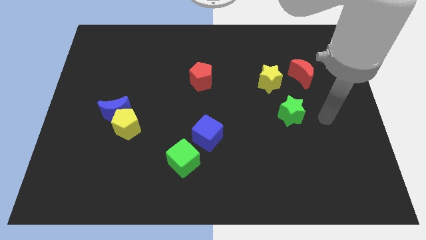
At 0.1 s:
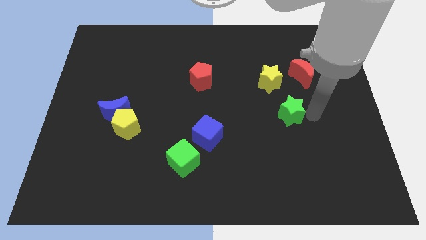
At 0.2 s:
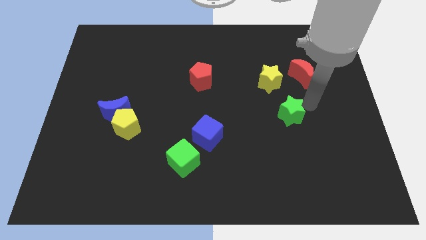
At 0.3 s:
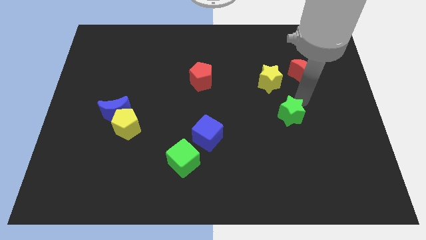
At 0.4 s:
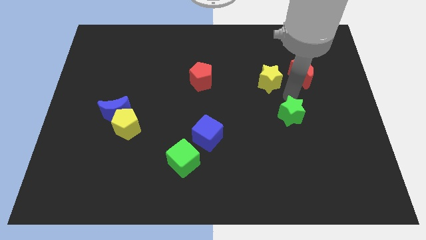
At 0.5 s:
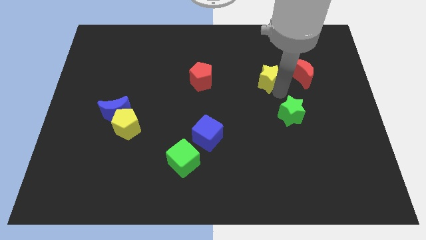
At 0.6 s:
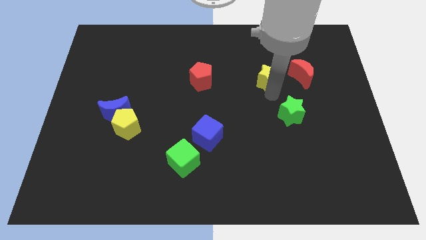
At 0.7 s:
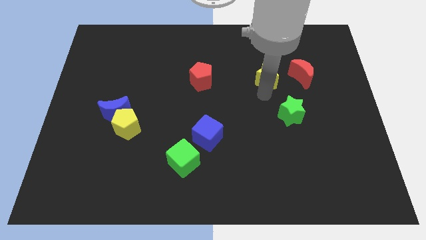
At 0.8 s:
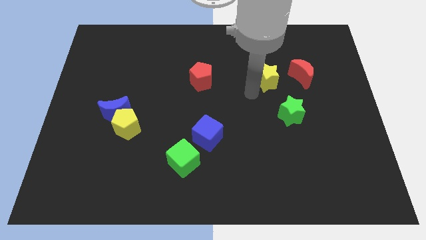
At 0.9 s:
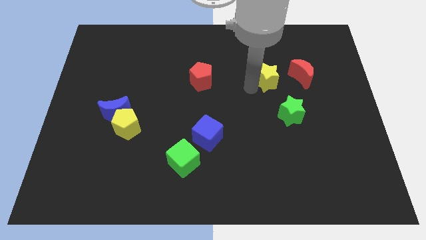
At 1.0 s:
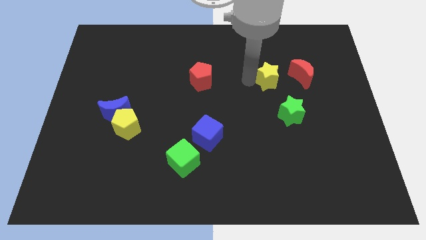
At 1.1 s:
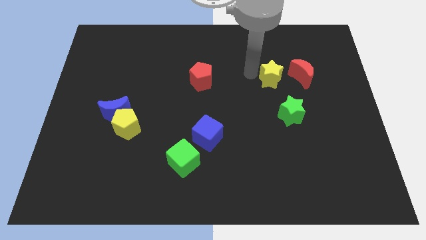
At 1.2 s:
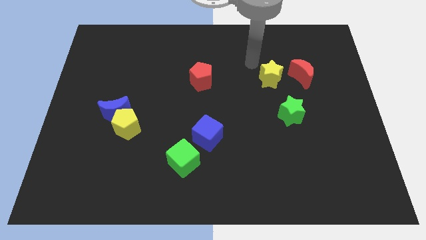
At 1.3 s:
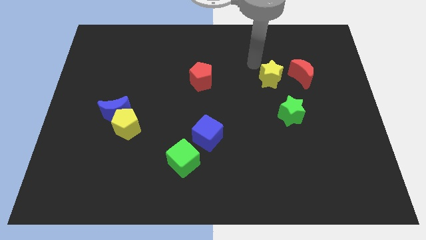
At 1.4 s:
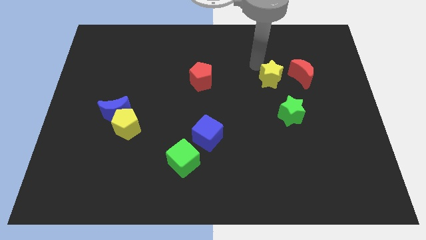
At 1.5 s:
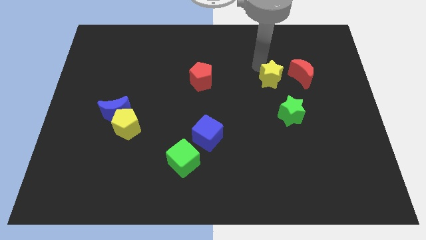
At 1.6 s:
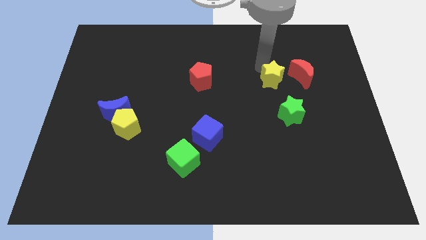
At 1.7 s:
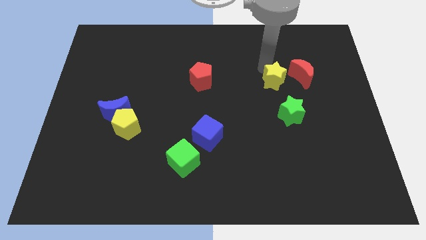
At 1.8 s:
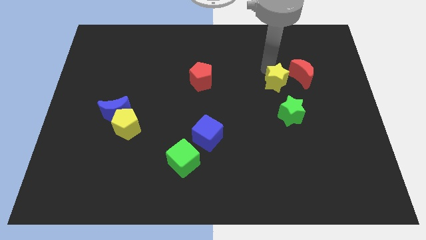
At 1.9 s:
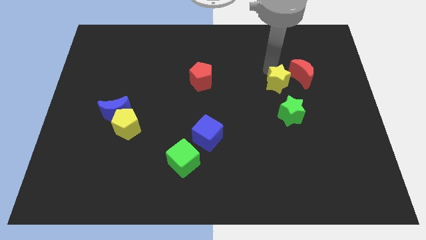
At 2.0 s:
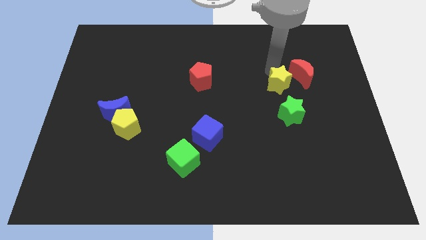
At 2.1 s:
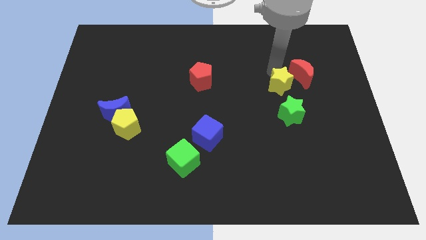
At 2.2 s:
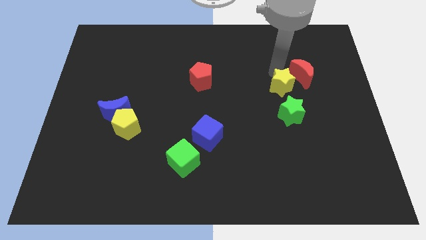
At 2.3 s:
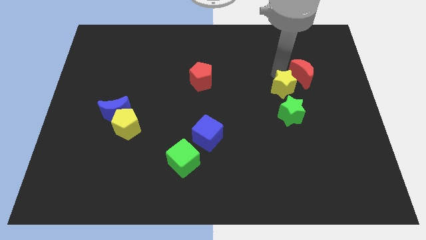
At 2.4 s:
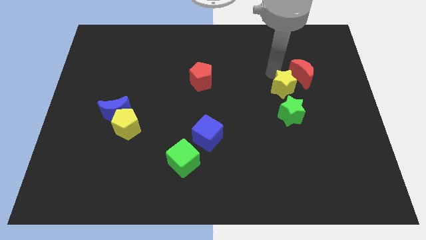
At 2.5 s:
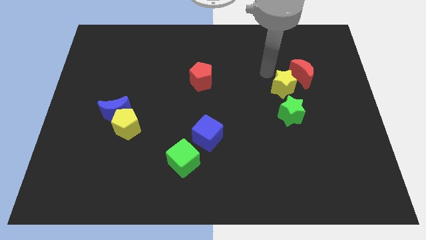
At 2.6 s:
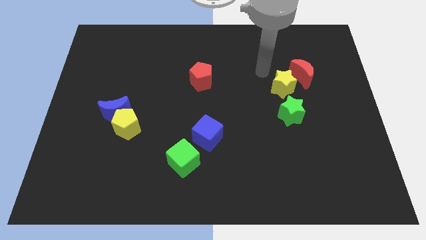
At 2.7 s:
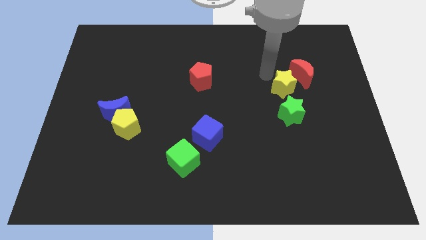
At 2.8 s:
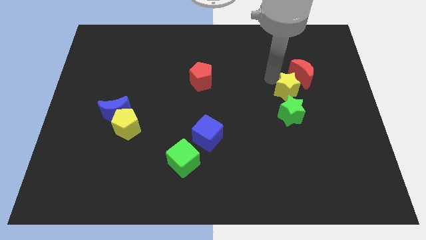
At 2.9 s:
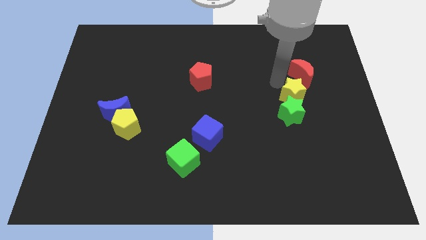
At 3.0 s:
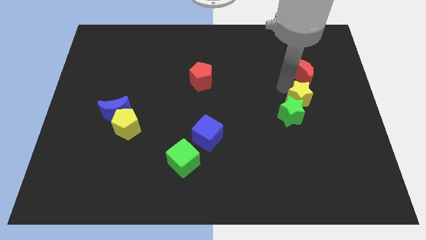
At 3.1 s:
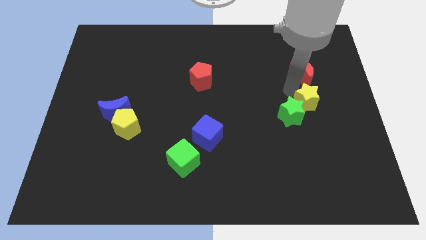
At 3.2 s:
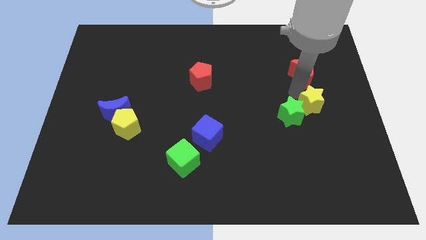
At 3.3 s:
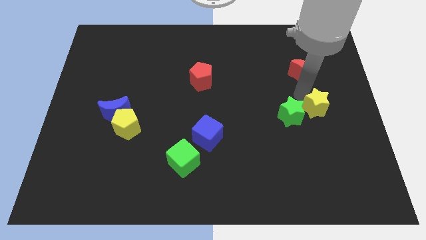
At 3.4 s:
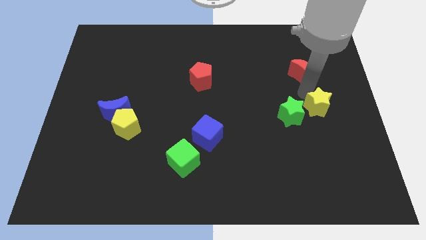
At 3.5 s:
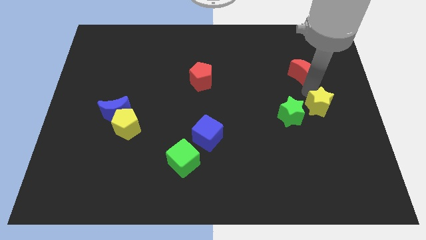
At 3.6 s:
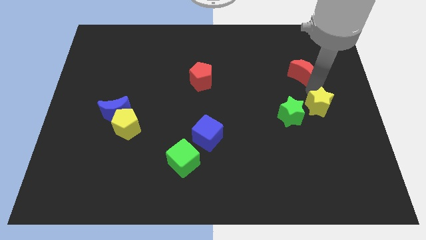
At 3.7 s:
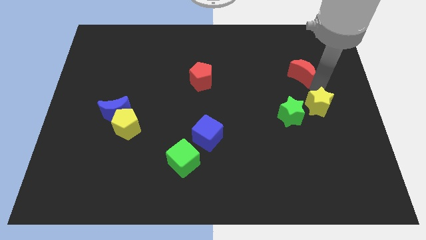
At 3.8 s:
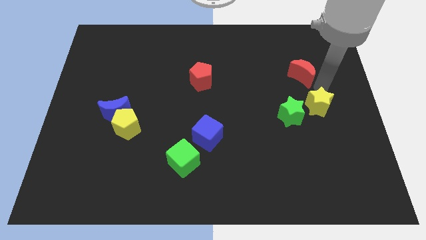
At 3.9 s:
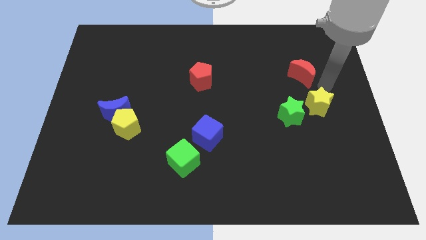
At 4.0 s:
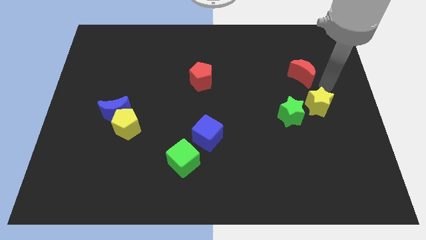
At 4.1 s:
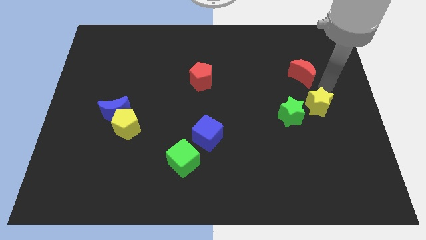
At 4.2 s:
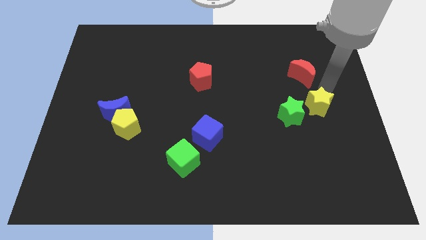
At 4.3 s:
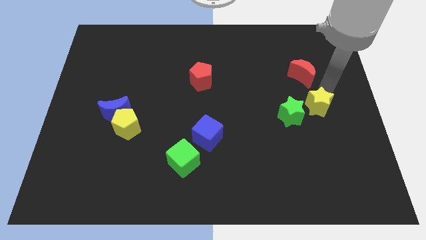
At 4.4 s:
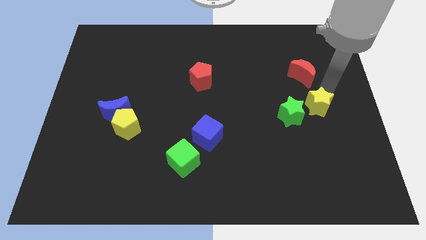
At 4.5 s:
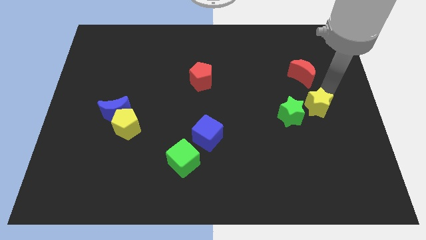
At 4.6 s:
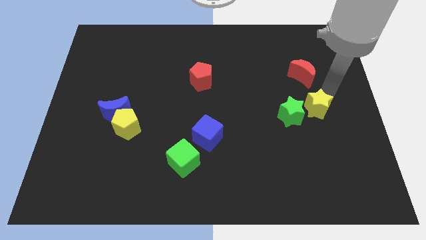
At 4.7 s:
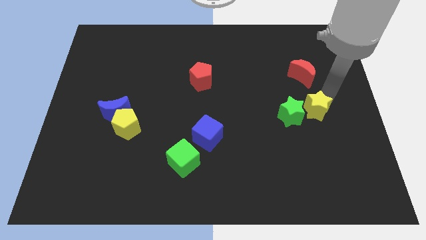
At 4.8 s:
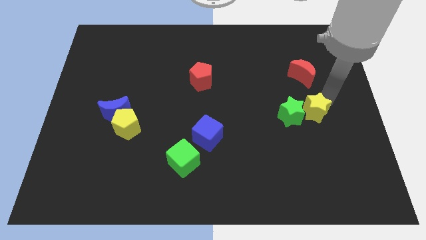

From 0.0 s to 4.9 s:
push the yellow star diagonally down and to the right of the green star

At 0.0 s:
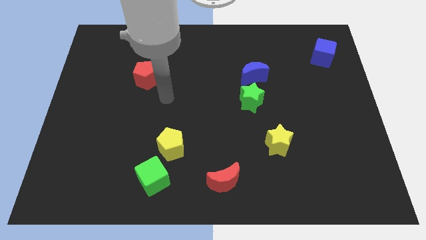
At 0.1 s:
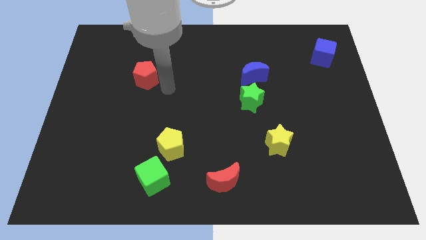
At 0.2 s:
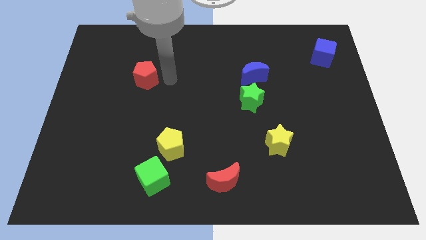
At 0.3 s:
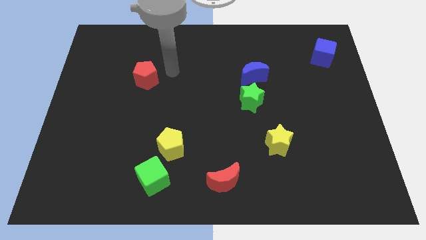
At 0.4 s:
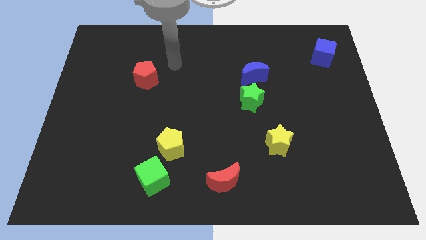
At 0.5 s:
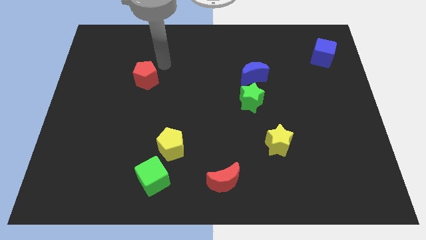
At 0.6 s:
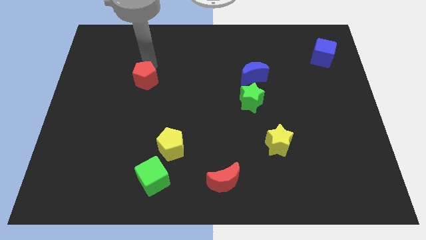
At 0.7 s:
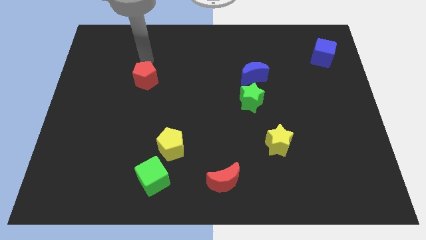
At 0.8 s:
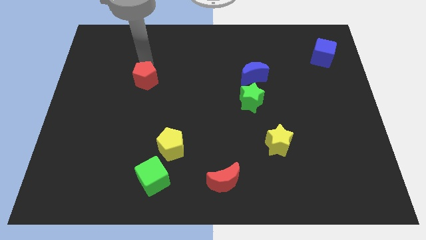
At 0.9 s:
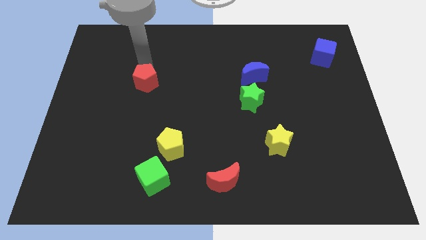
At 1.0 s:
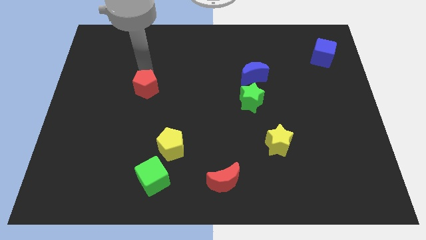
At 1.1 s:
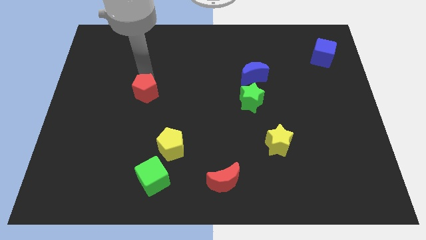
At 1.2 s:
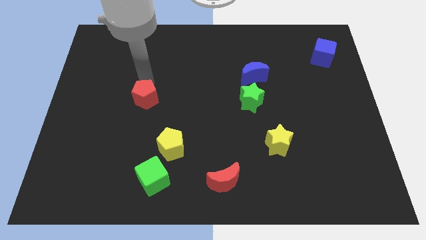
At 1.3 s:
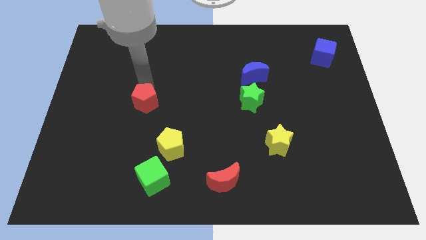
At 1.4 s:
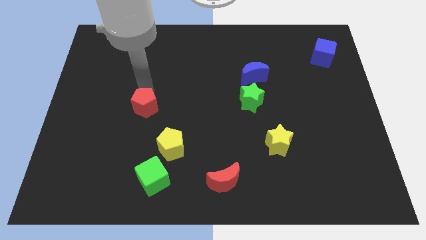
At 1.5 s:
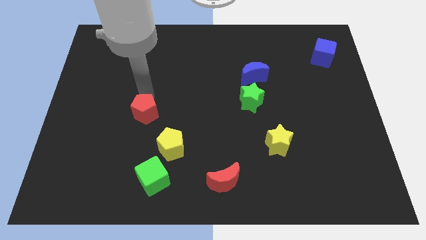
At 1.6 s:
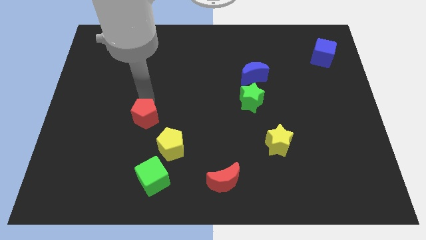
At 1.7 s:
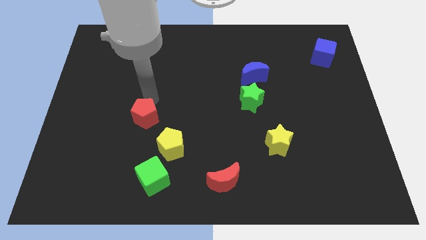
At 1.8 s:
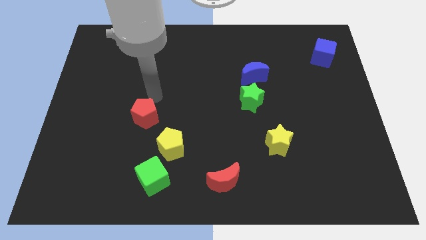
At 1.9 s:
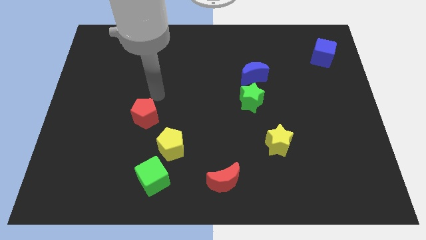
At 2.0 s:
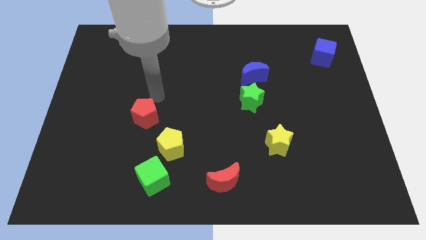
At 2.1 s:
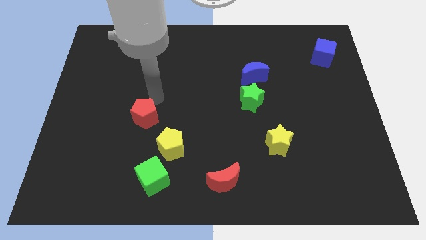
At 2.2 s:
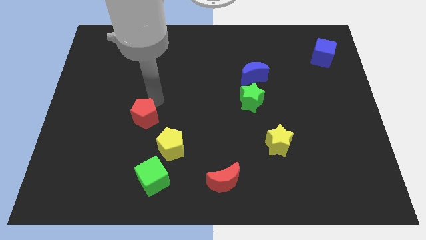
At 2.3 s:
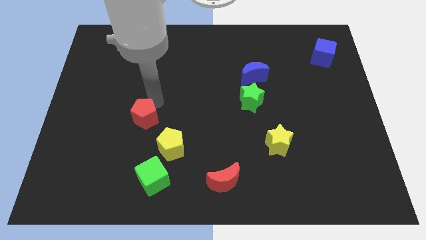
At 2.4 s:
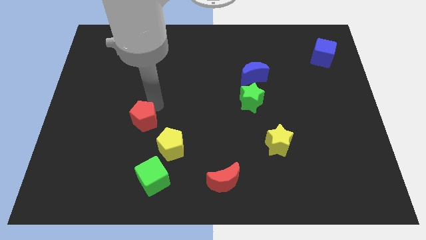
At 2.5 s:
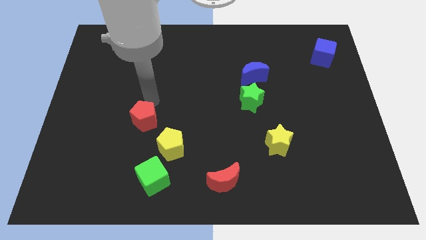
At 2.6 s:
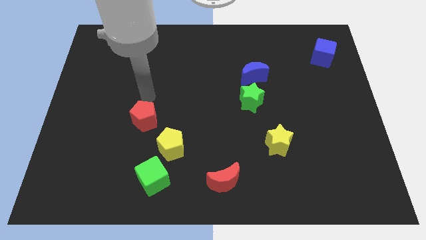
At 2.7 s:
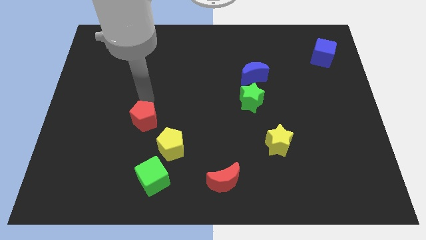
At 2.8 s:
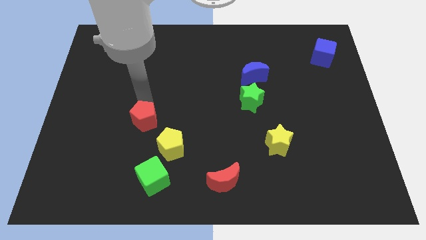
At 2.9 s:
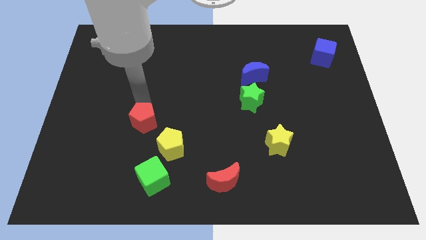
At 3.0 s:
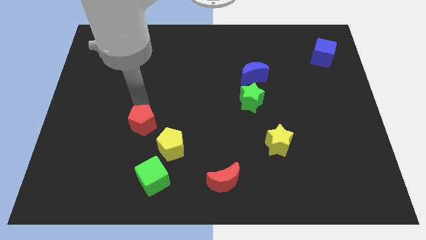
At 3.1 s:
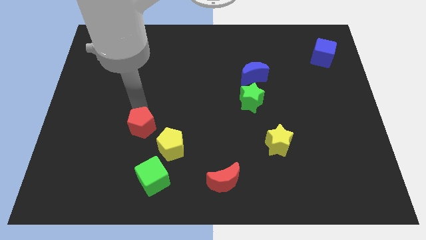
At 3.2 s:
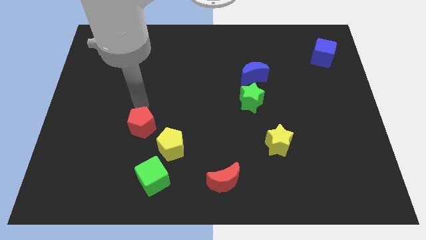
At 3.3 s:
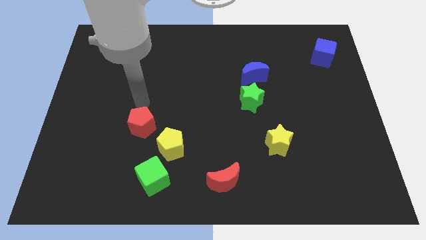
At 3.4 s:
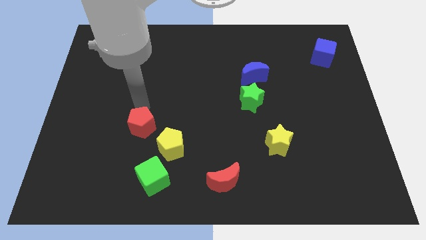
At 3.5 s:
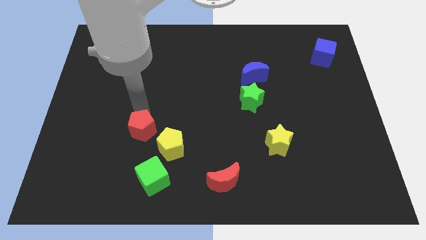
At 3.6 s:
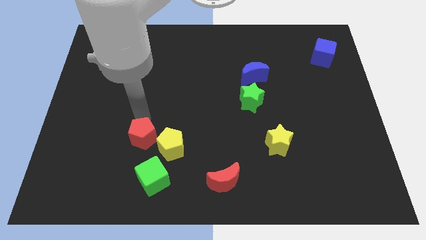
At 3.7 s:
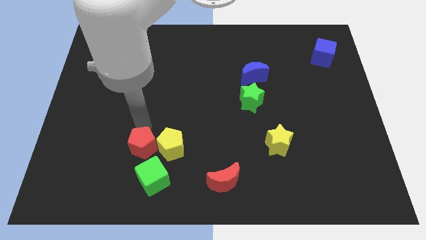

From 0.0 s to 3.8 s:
move the red pentagon to the bottom left of the yellow pentagon
